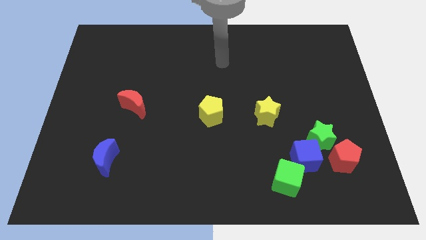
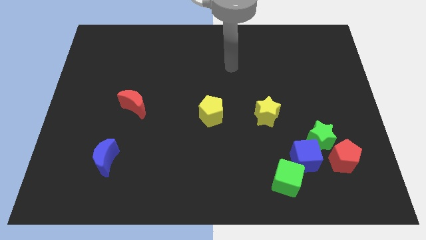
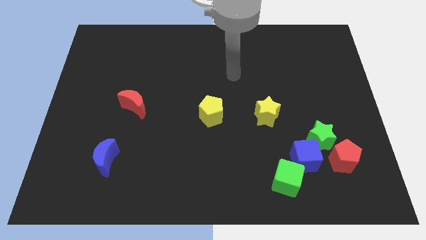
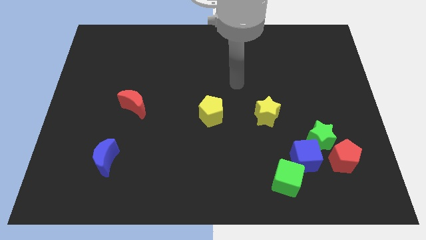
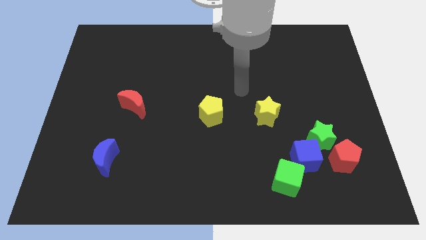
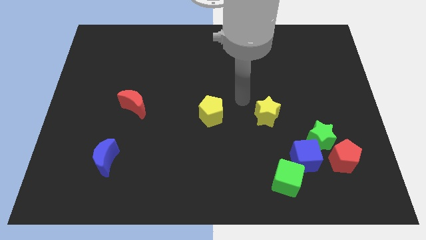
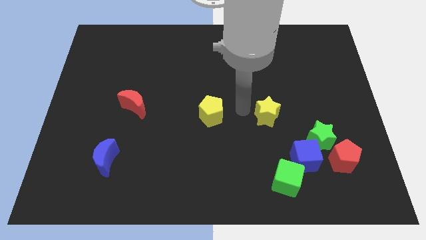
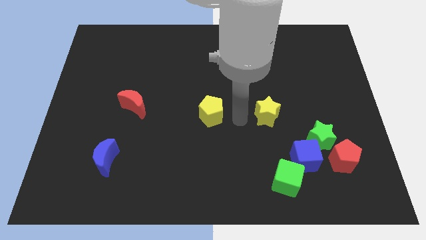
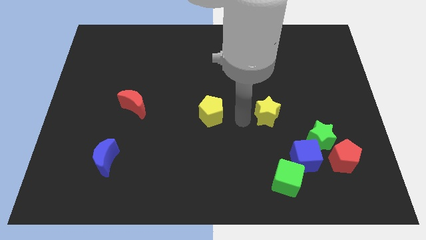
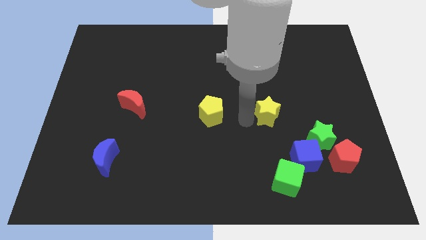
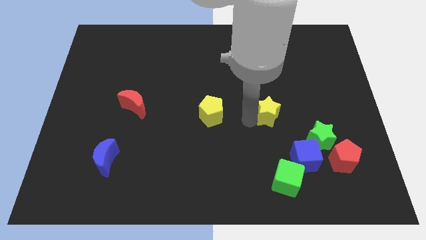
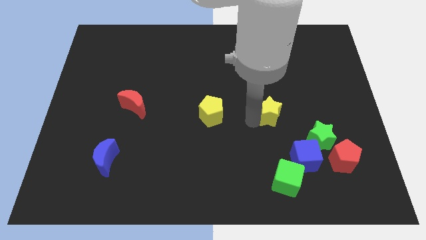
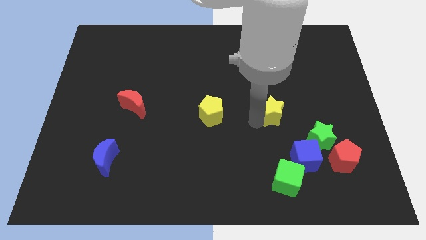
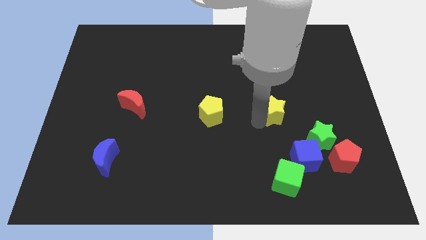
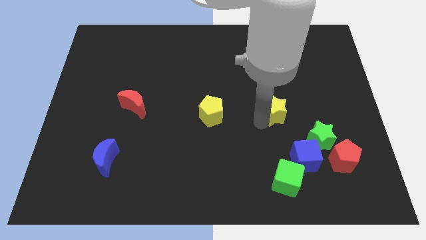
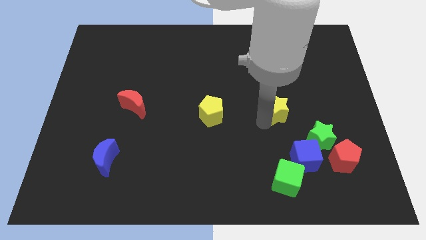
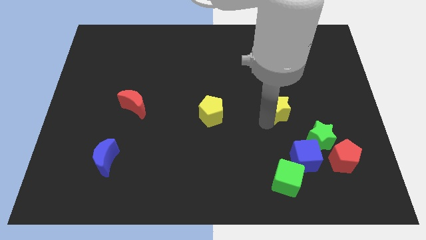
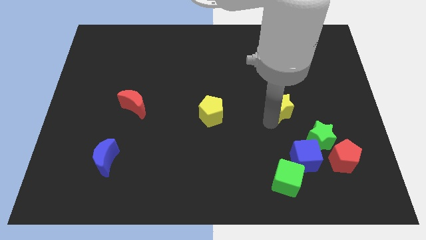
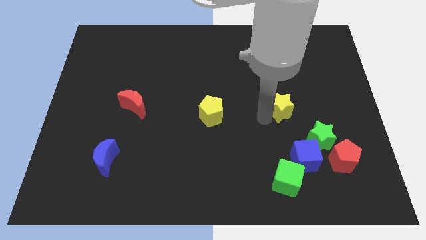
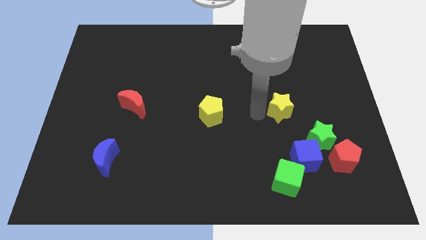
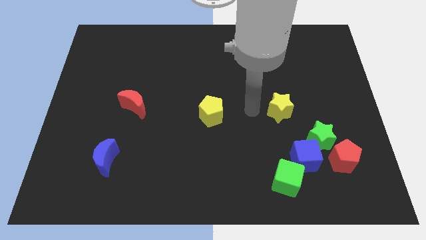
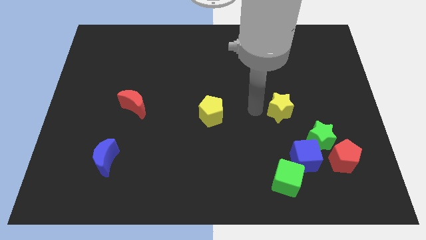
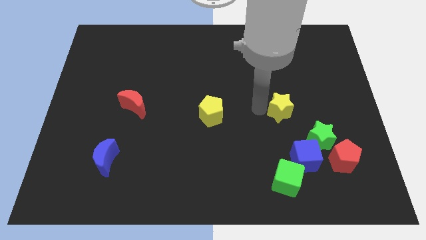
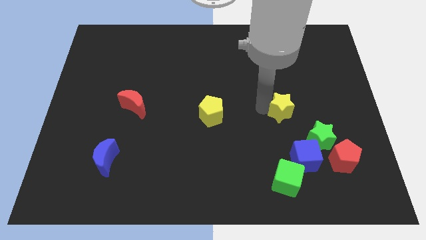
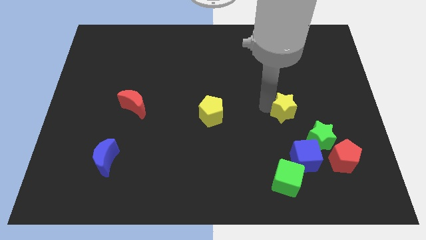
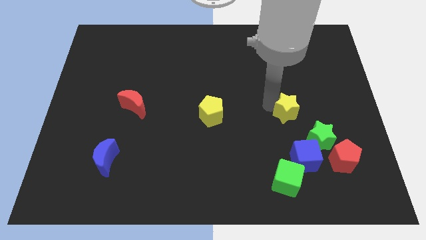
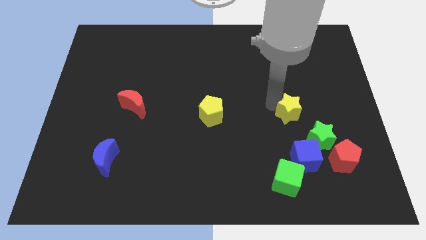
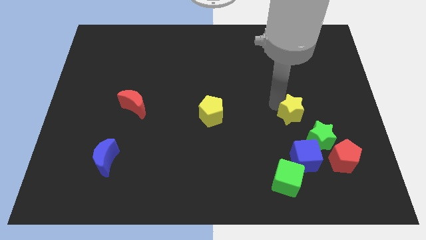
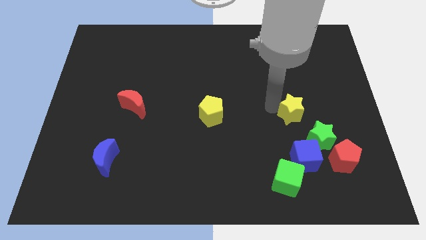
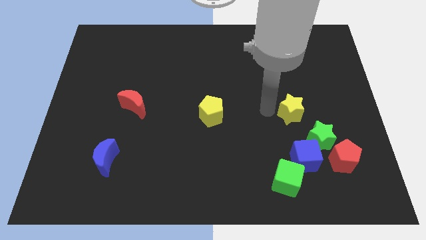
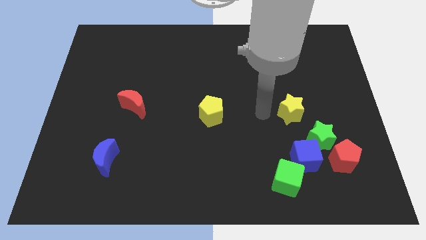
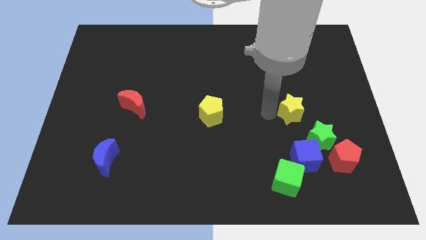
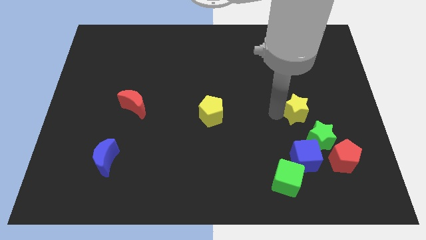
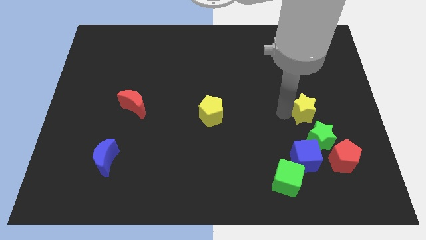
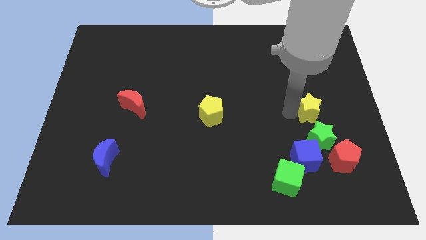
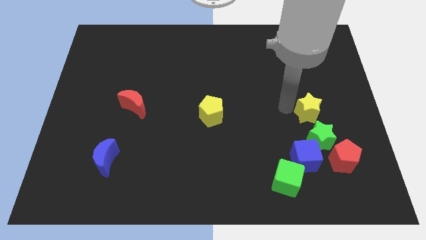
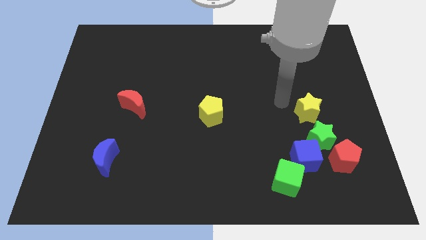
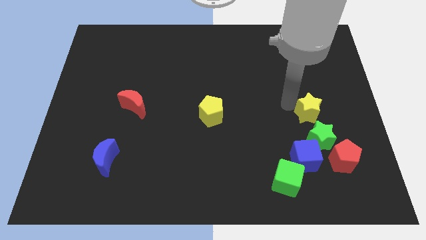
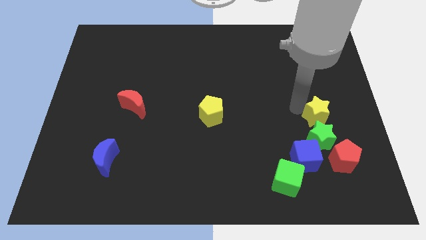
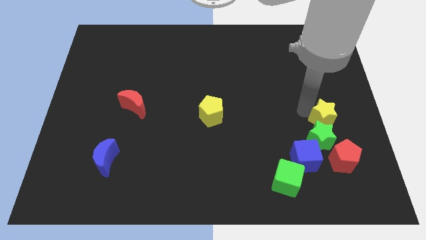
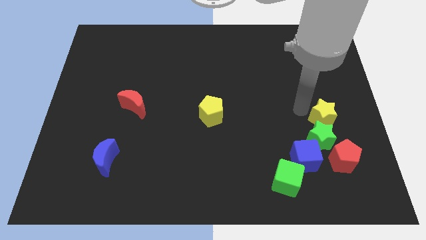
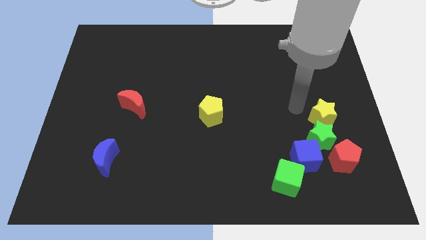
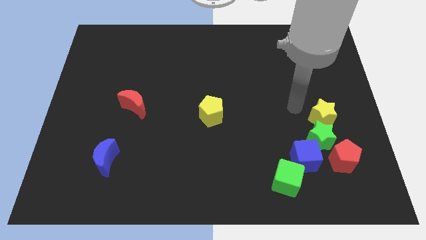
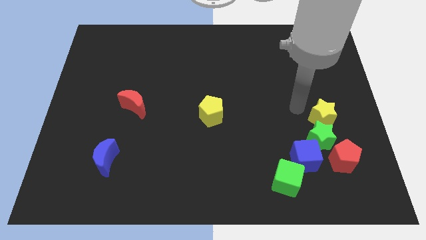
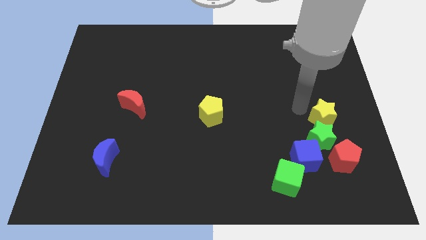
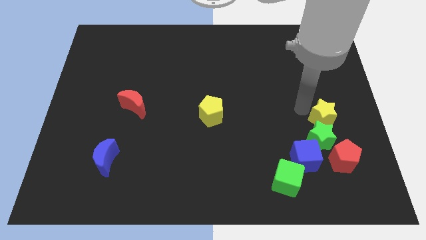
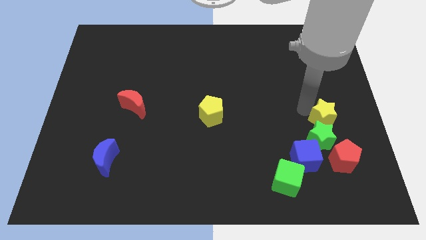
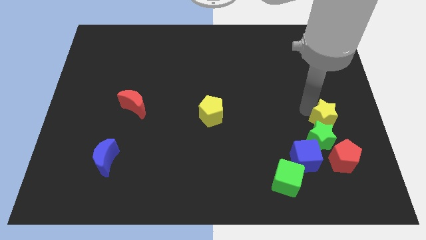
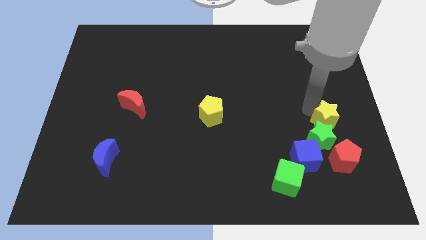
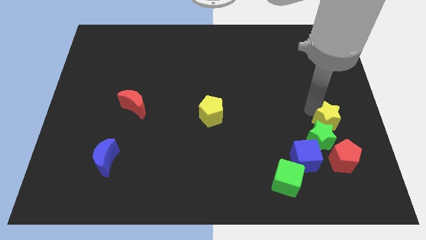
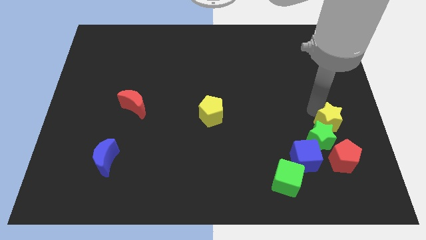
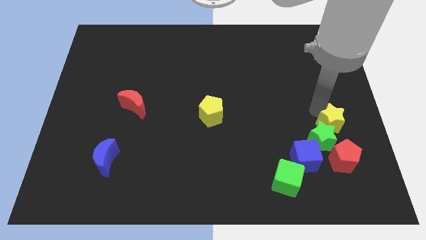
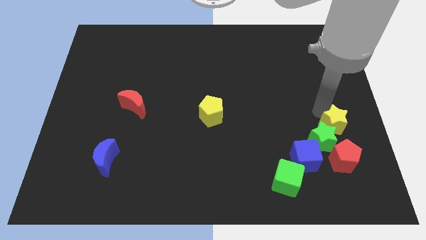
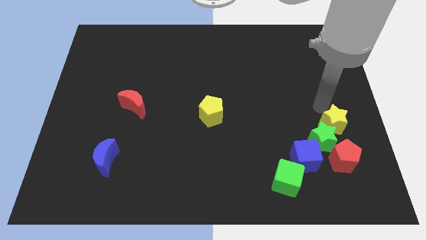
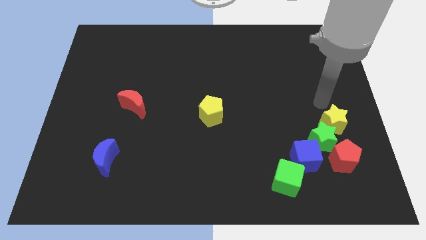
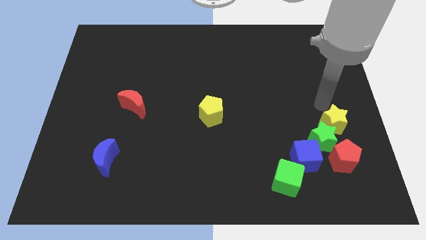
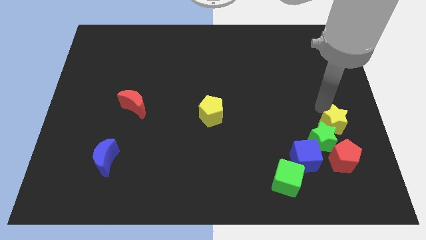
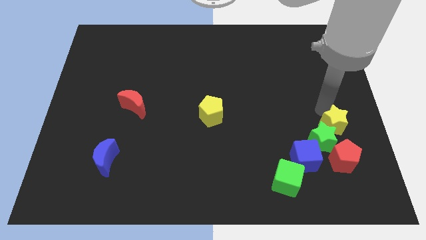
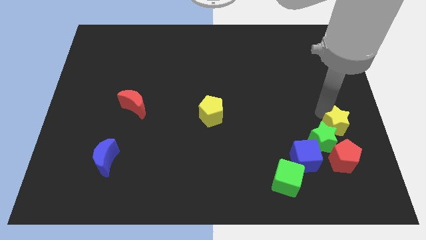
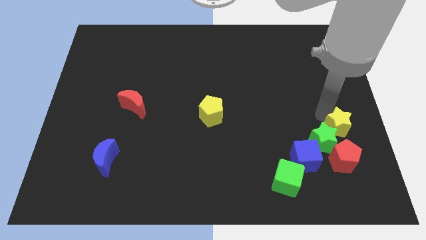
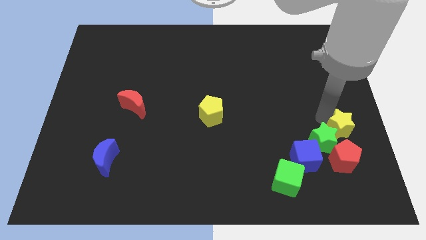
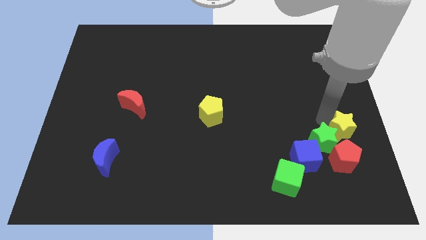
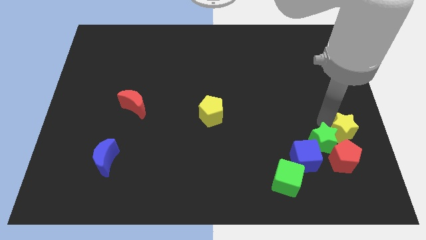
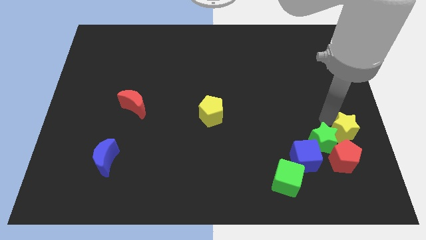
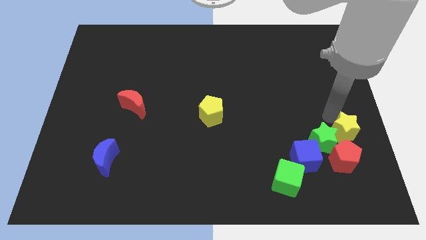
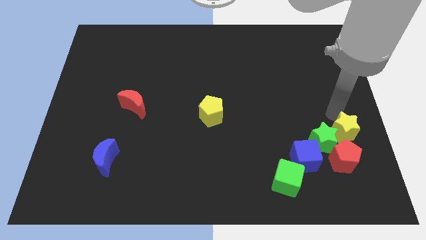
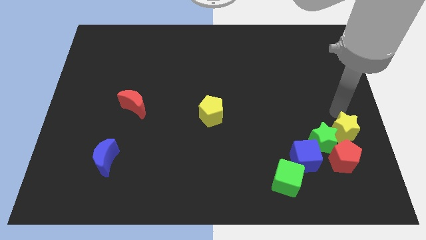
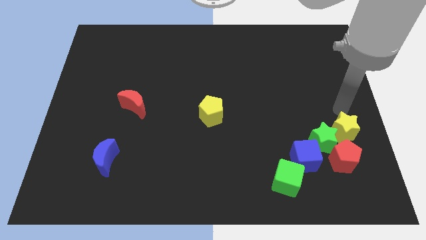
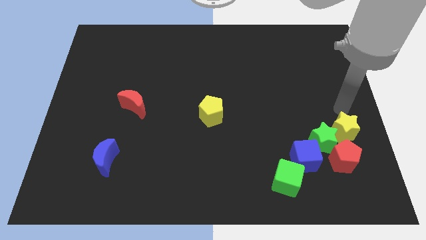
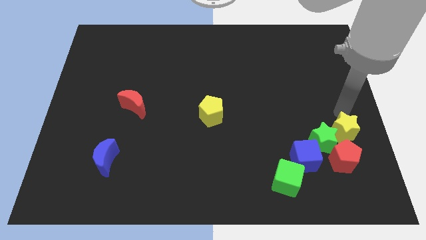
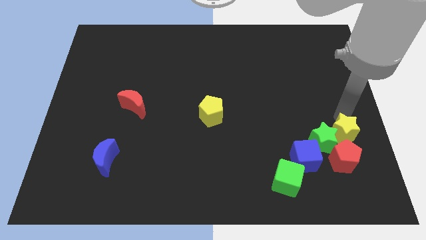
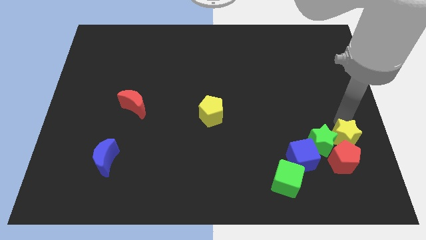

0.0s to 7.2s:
move the yellow star towards the red pentagon
